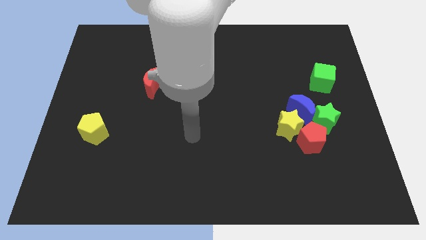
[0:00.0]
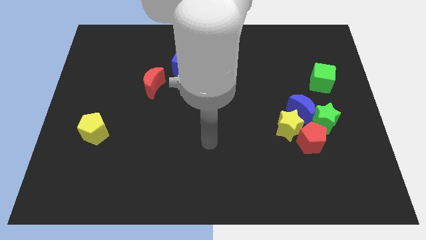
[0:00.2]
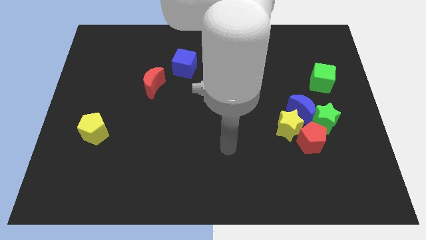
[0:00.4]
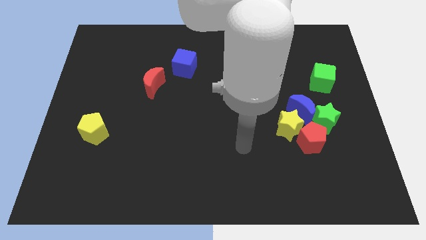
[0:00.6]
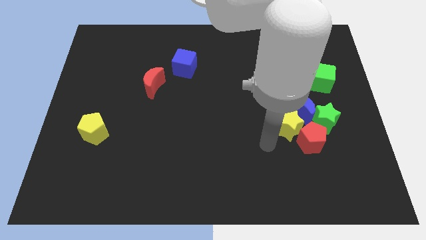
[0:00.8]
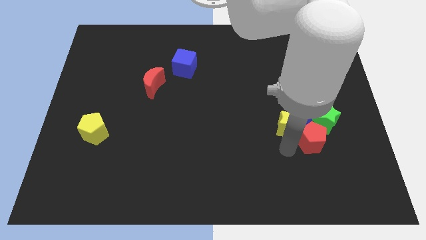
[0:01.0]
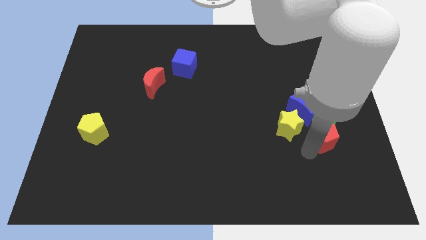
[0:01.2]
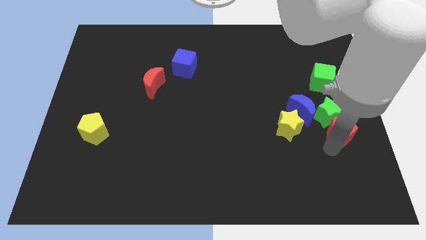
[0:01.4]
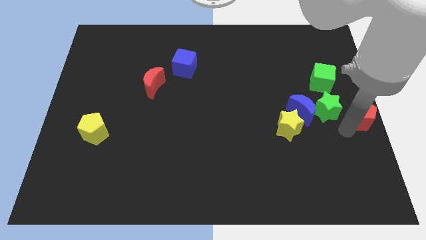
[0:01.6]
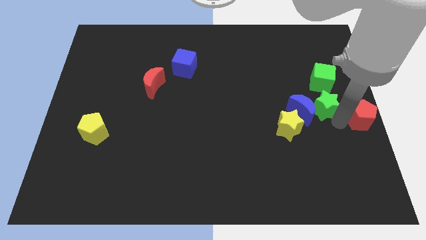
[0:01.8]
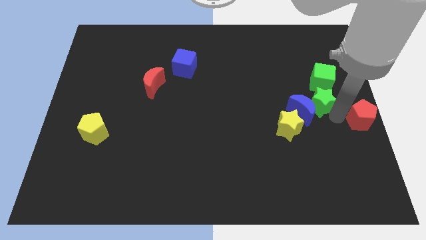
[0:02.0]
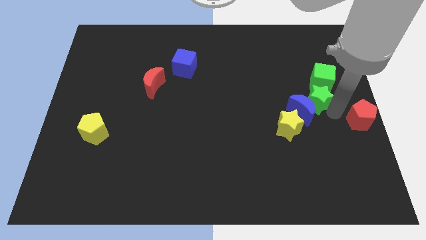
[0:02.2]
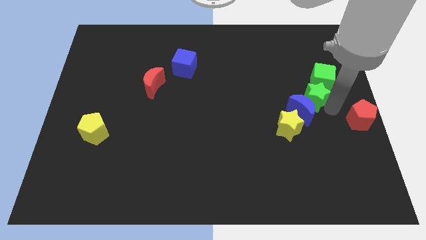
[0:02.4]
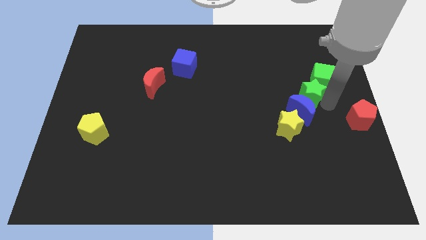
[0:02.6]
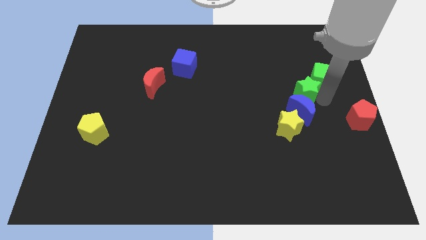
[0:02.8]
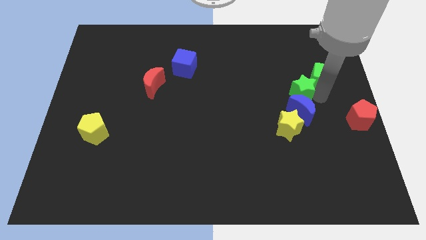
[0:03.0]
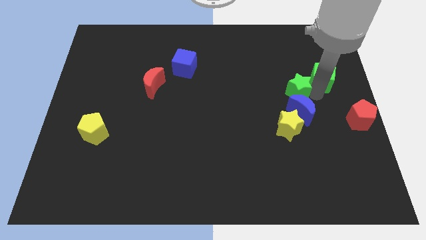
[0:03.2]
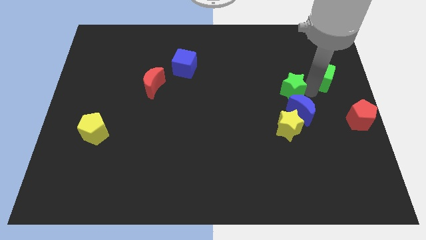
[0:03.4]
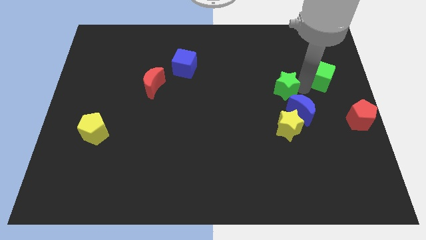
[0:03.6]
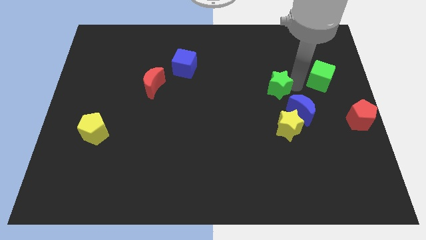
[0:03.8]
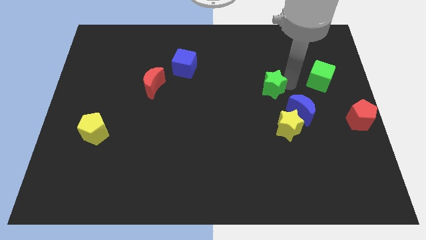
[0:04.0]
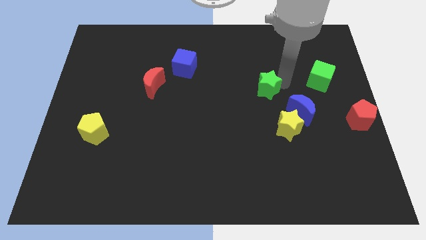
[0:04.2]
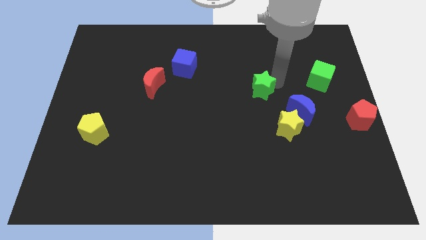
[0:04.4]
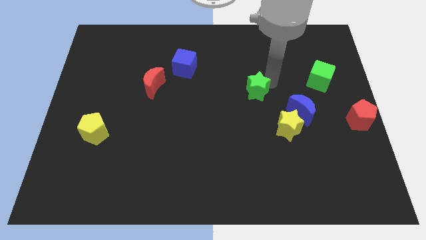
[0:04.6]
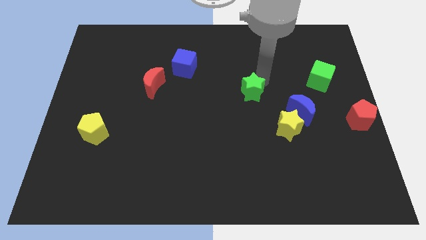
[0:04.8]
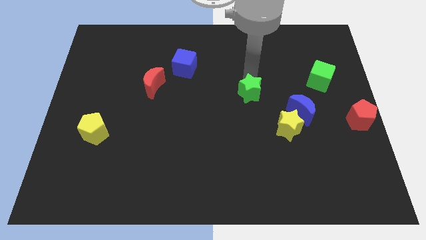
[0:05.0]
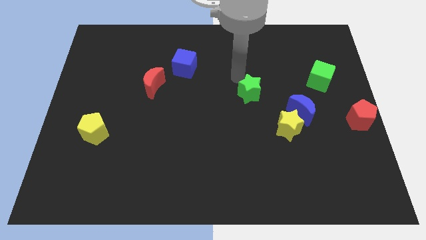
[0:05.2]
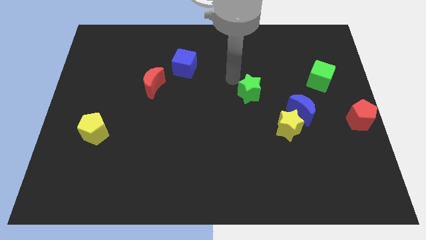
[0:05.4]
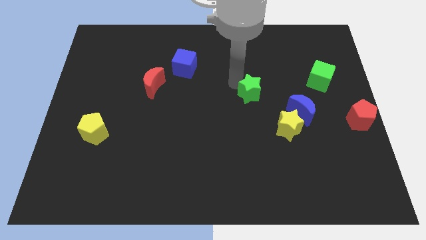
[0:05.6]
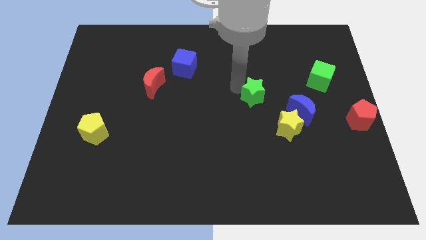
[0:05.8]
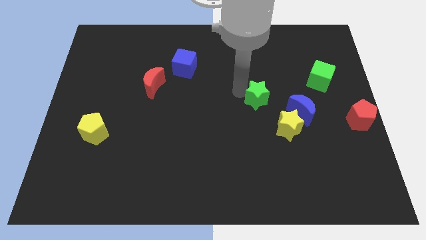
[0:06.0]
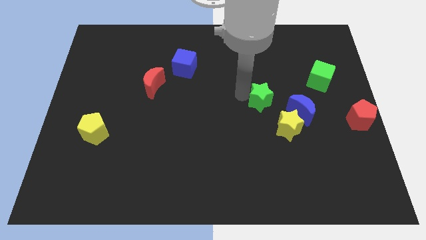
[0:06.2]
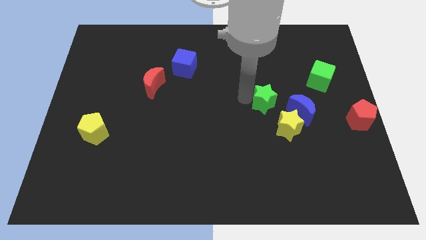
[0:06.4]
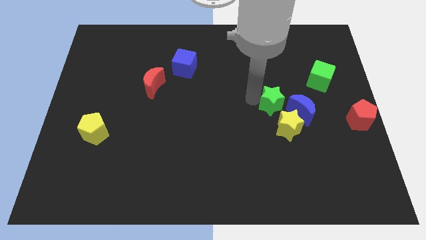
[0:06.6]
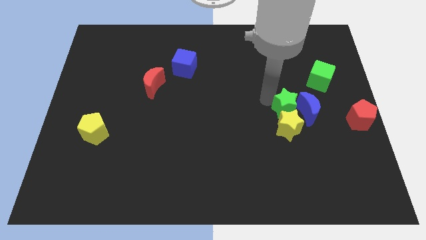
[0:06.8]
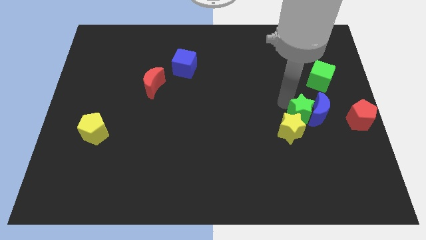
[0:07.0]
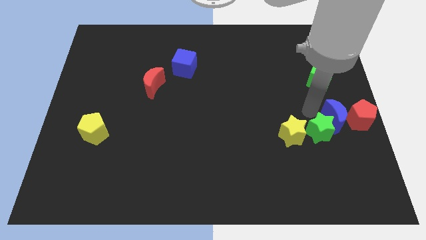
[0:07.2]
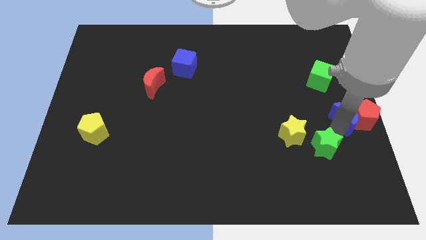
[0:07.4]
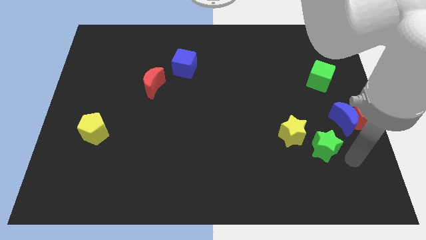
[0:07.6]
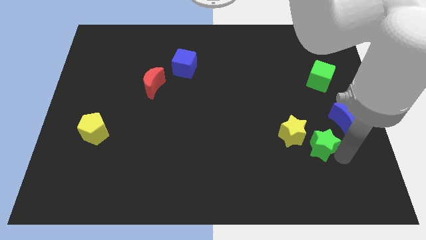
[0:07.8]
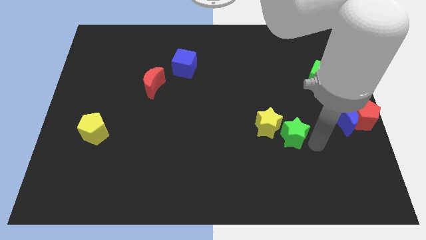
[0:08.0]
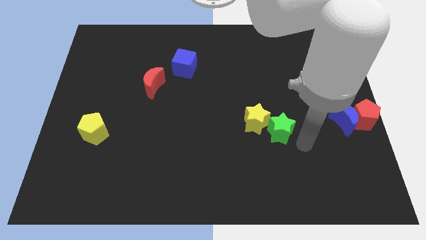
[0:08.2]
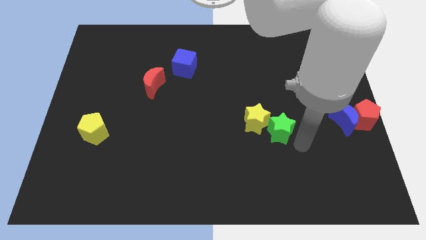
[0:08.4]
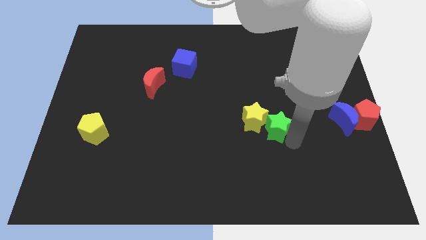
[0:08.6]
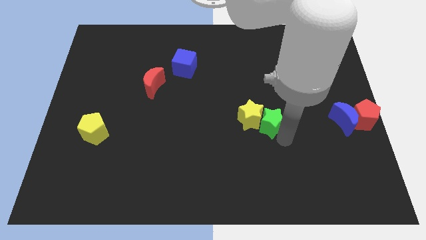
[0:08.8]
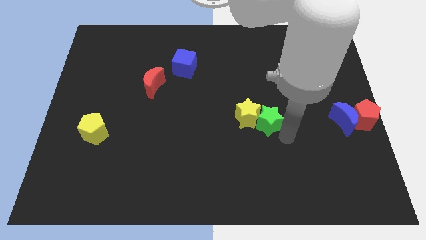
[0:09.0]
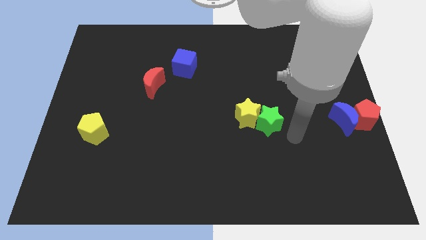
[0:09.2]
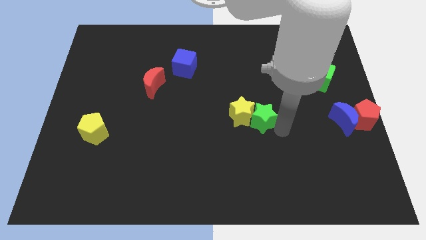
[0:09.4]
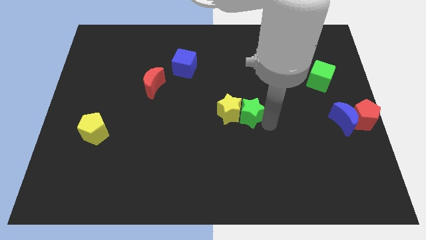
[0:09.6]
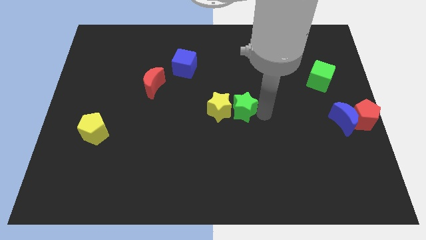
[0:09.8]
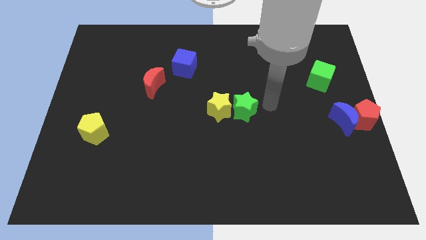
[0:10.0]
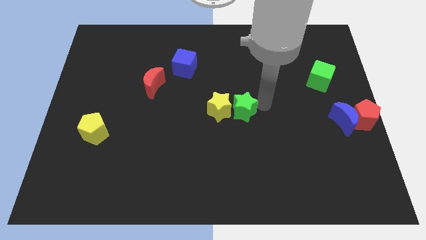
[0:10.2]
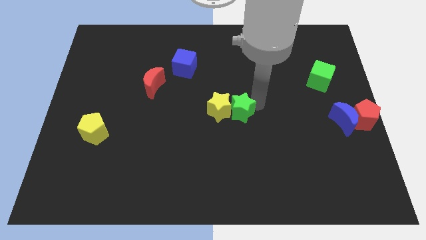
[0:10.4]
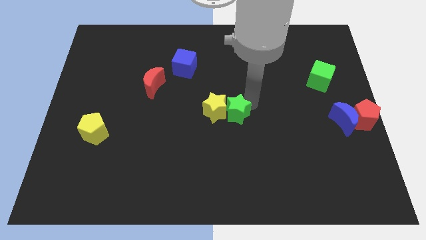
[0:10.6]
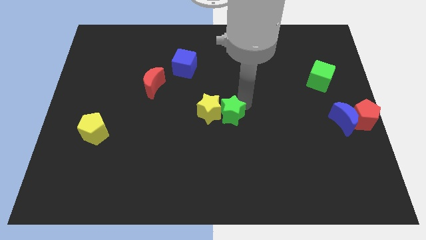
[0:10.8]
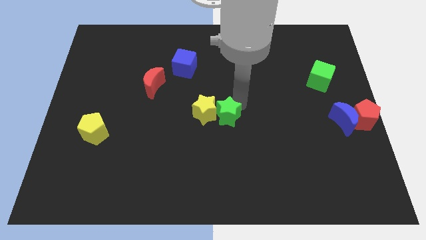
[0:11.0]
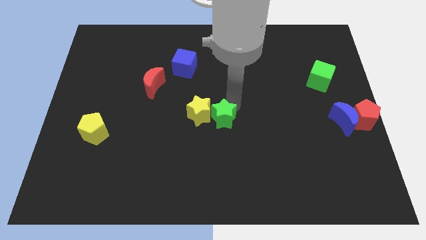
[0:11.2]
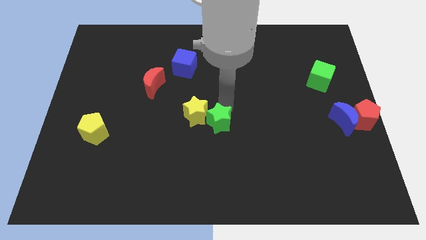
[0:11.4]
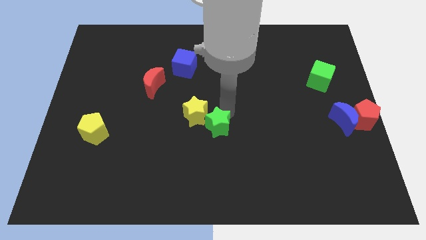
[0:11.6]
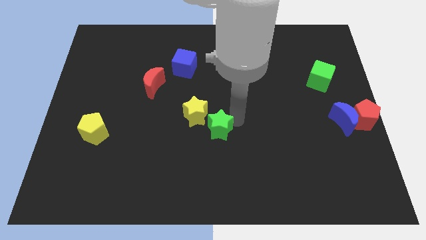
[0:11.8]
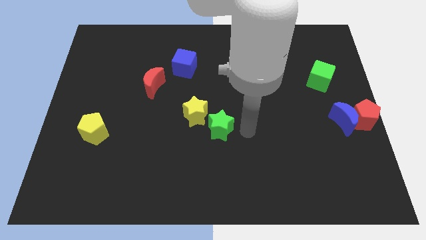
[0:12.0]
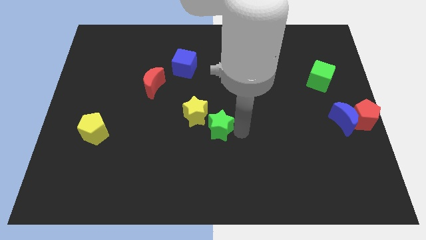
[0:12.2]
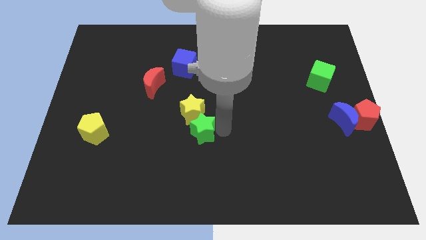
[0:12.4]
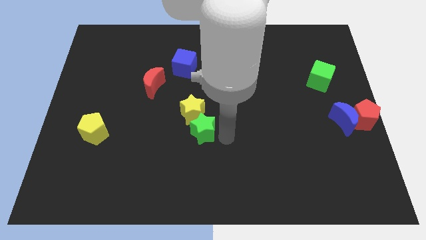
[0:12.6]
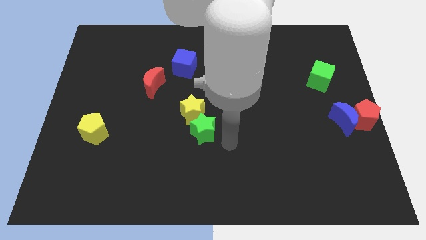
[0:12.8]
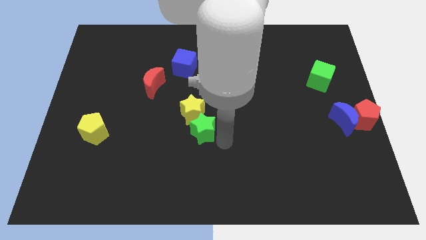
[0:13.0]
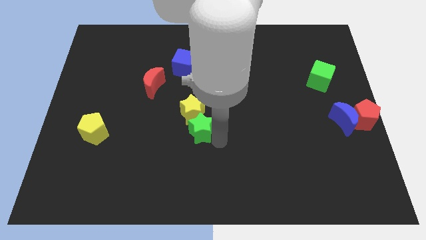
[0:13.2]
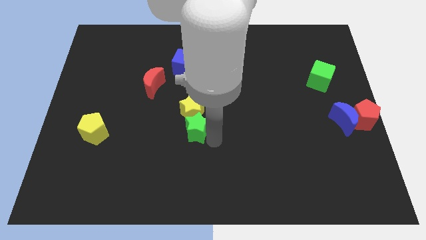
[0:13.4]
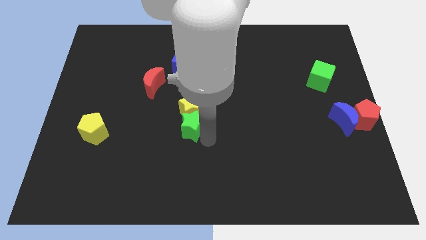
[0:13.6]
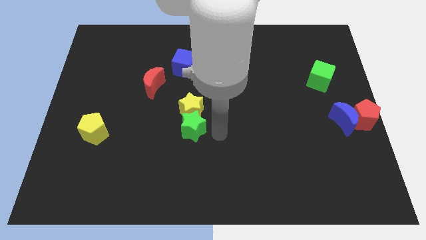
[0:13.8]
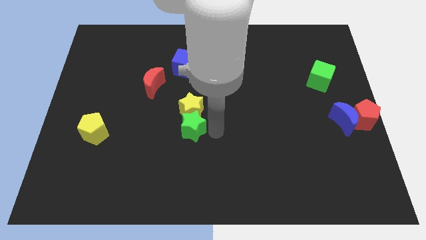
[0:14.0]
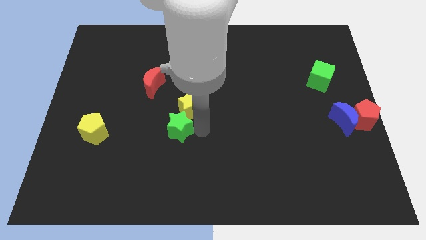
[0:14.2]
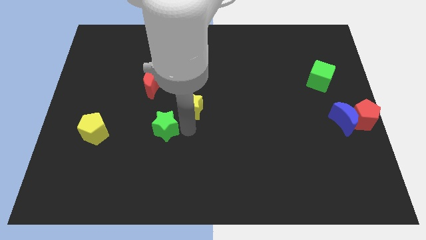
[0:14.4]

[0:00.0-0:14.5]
push the green star to the right side of the yellow pentagon
